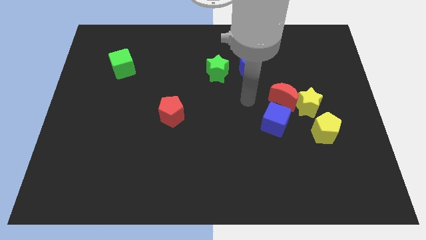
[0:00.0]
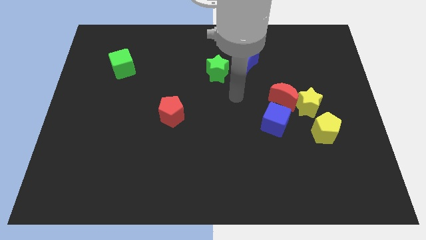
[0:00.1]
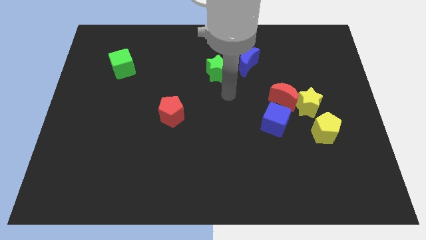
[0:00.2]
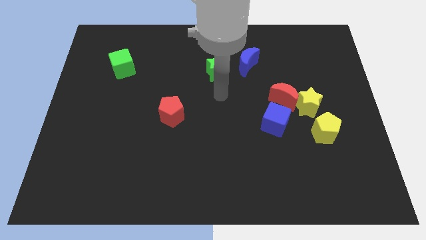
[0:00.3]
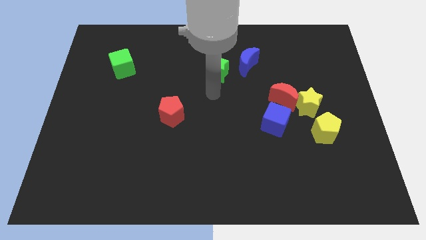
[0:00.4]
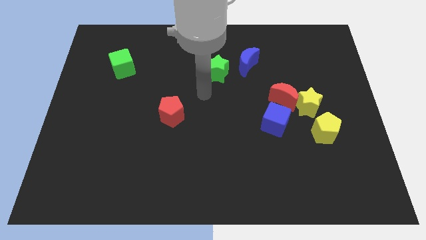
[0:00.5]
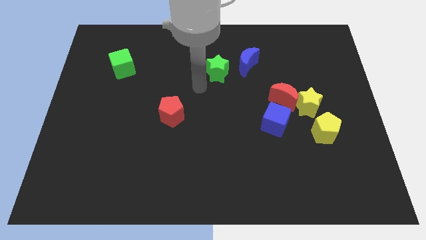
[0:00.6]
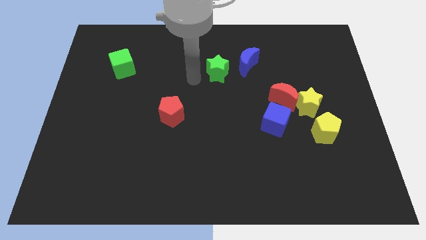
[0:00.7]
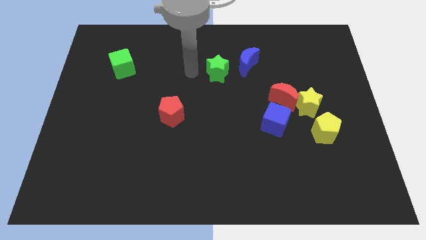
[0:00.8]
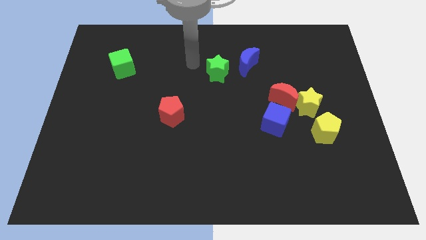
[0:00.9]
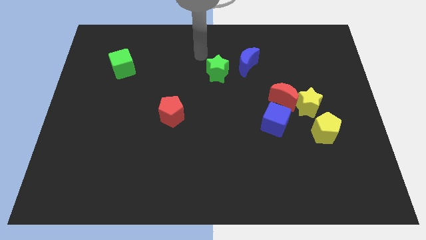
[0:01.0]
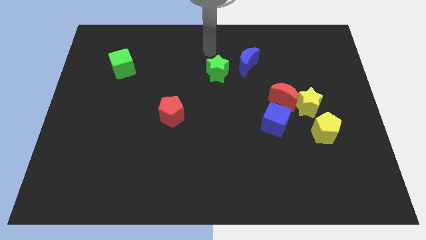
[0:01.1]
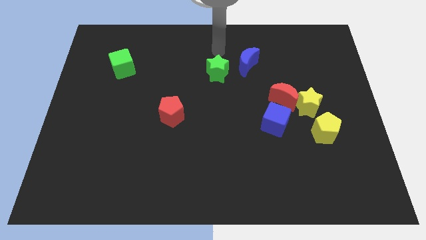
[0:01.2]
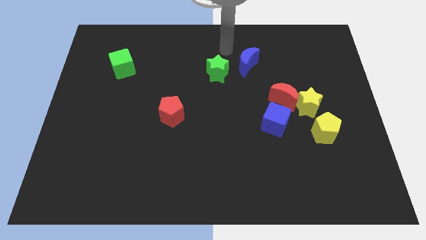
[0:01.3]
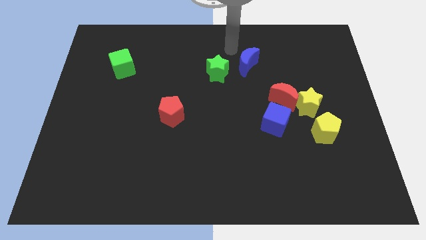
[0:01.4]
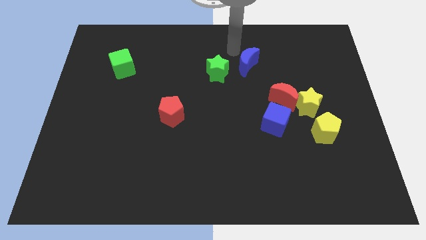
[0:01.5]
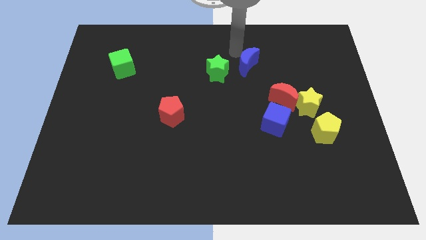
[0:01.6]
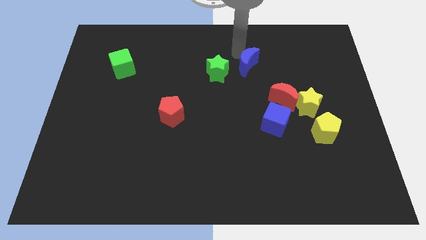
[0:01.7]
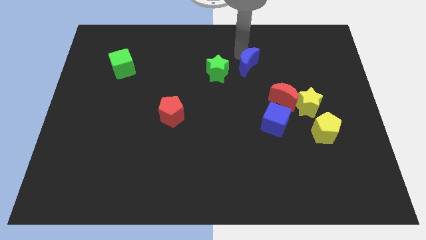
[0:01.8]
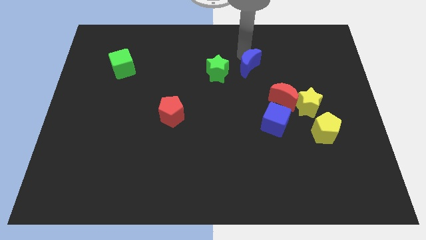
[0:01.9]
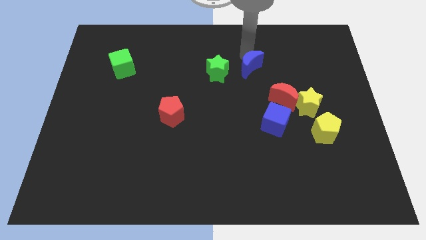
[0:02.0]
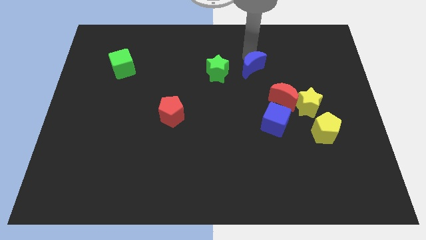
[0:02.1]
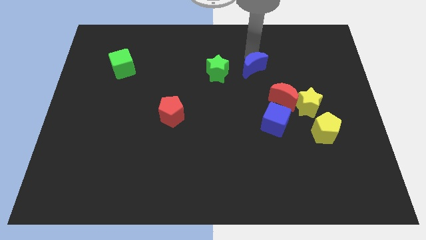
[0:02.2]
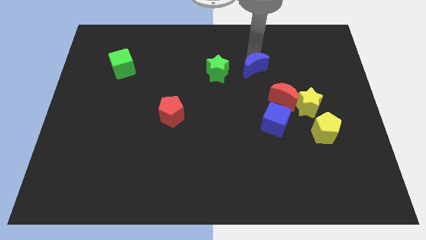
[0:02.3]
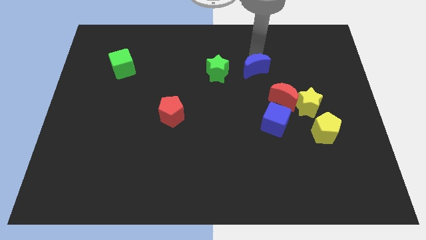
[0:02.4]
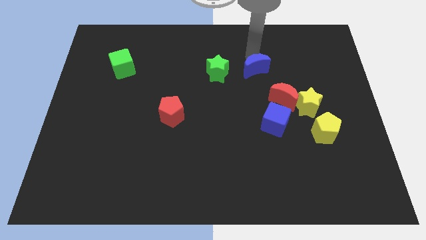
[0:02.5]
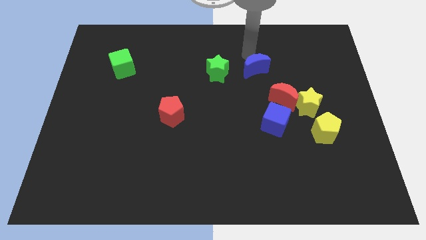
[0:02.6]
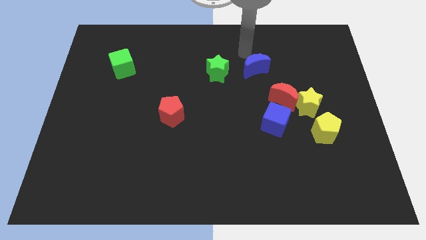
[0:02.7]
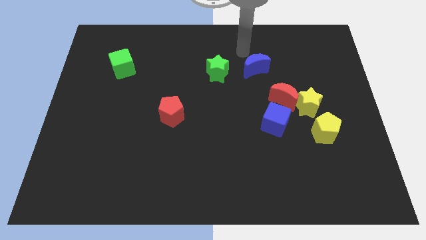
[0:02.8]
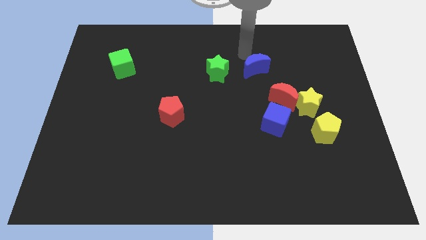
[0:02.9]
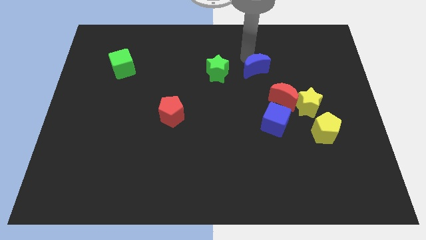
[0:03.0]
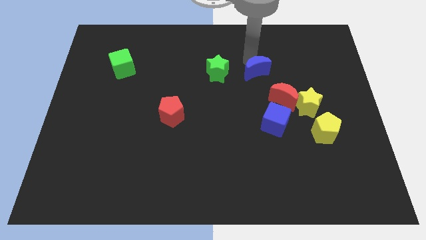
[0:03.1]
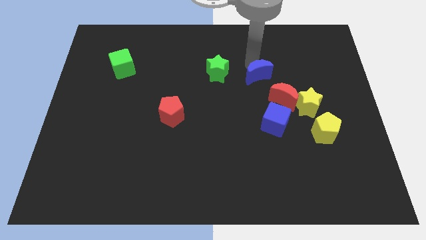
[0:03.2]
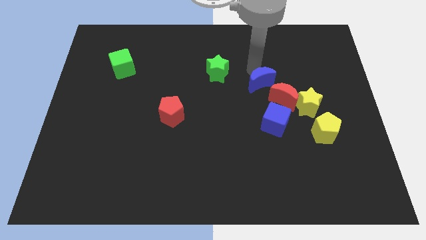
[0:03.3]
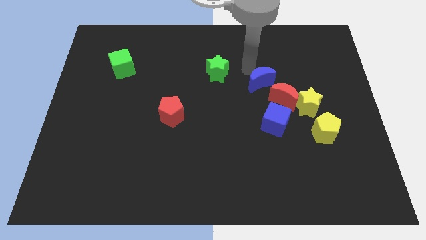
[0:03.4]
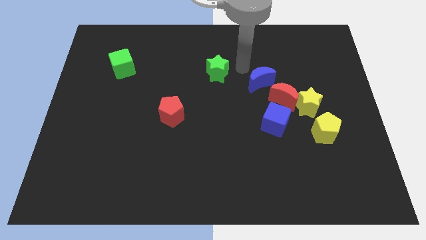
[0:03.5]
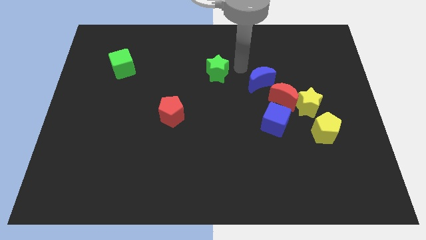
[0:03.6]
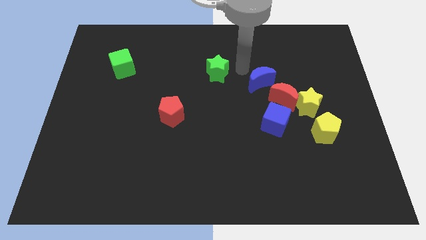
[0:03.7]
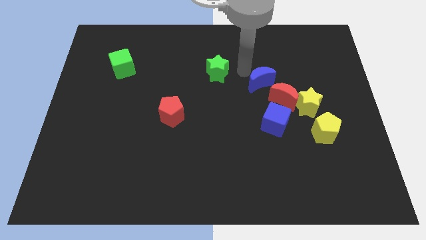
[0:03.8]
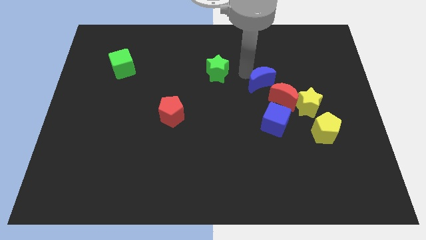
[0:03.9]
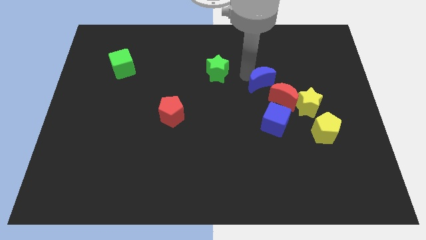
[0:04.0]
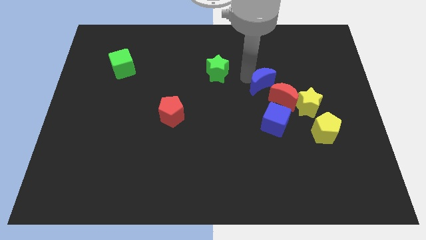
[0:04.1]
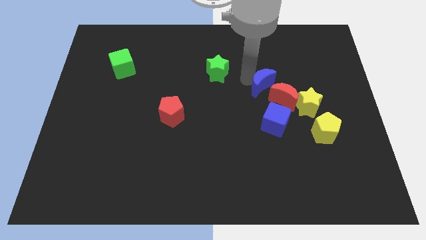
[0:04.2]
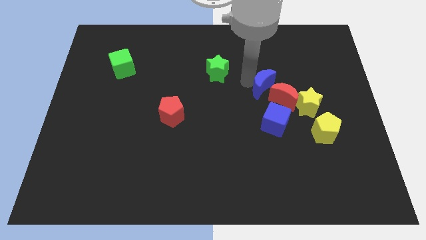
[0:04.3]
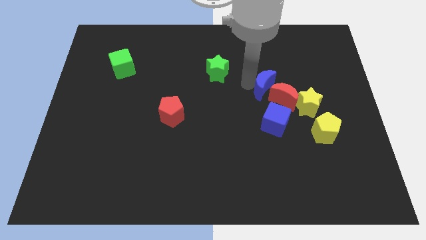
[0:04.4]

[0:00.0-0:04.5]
push the blue moon close to the red moon

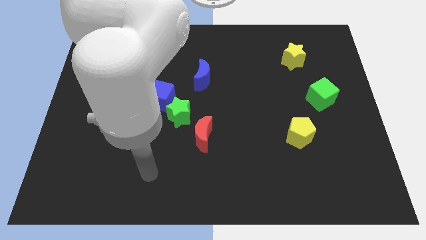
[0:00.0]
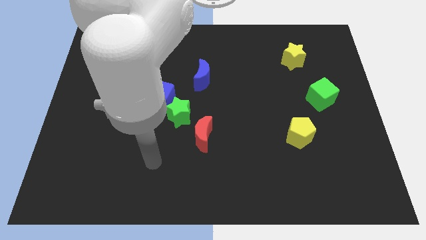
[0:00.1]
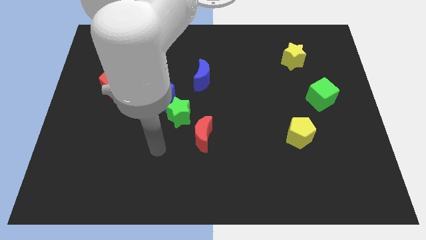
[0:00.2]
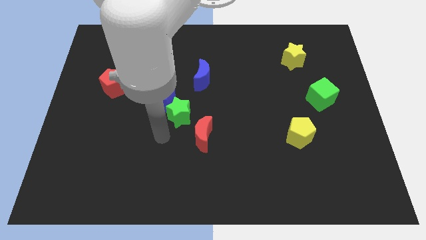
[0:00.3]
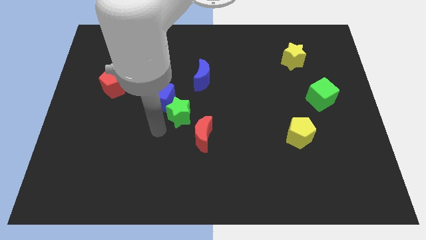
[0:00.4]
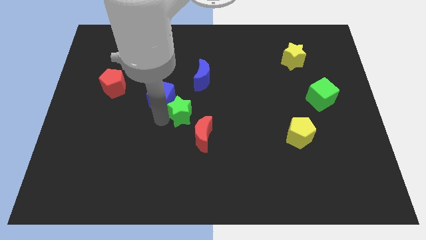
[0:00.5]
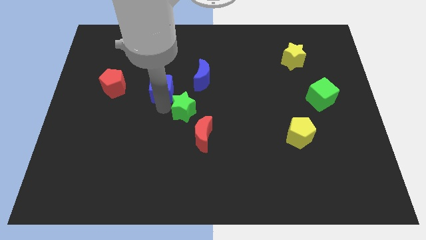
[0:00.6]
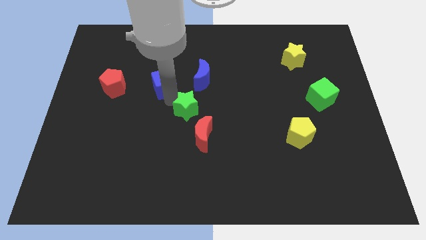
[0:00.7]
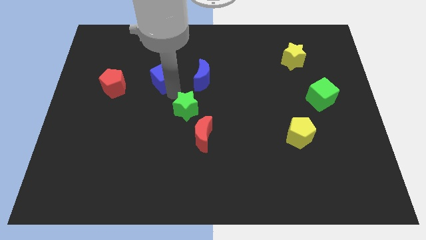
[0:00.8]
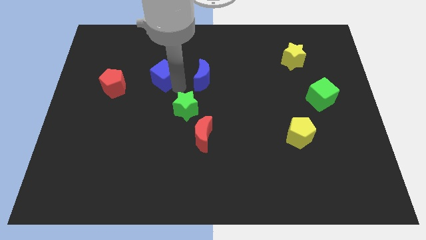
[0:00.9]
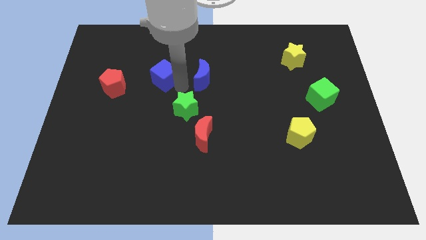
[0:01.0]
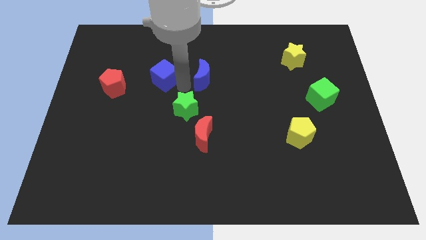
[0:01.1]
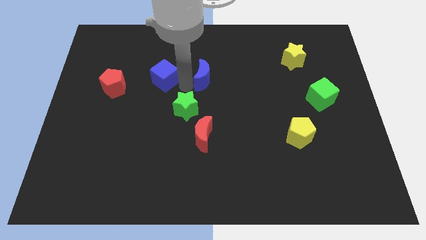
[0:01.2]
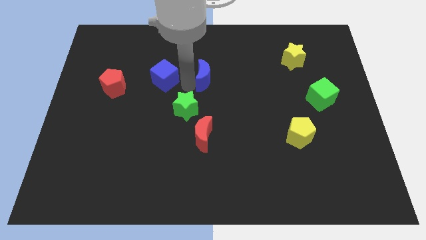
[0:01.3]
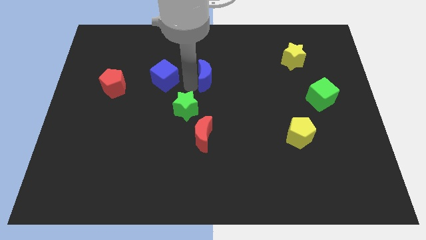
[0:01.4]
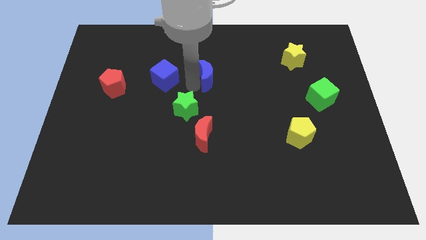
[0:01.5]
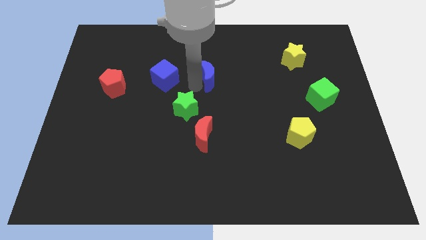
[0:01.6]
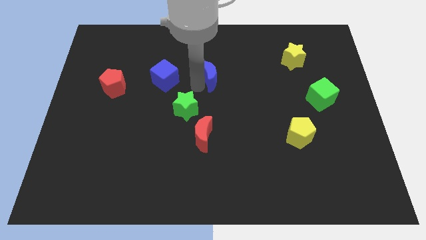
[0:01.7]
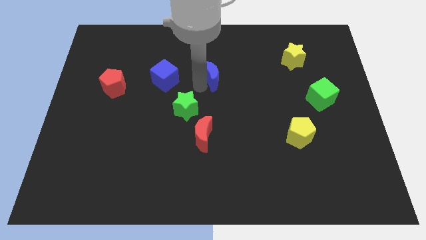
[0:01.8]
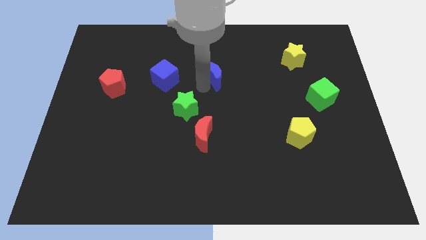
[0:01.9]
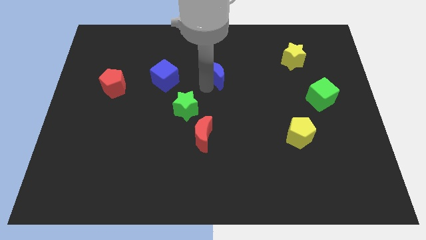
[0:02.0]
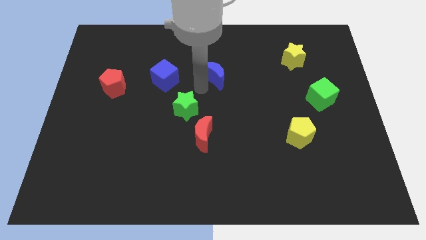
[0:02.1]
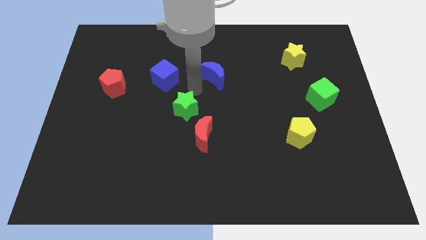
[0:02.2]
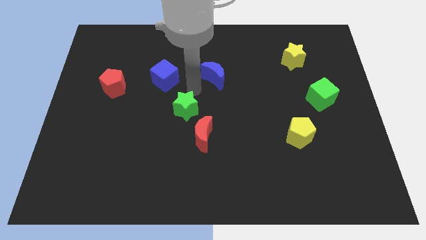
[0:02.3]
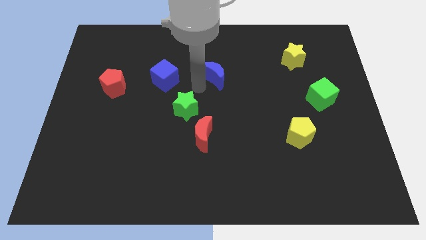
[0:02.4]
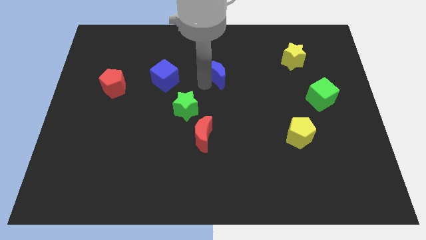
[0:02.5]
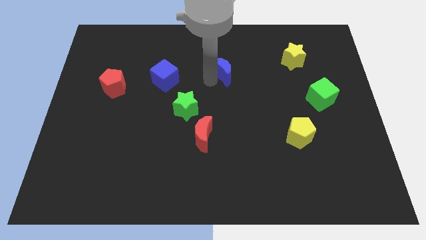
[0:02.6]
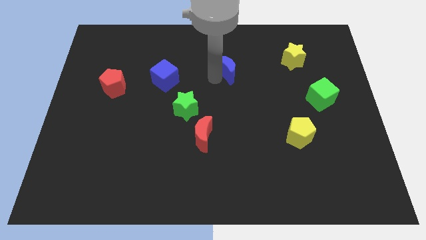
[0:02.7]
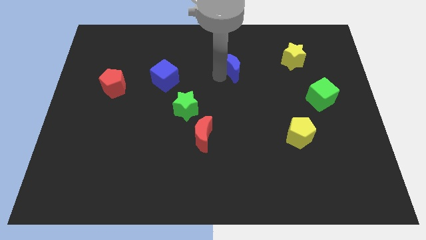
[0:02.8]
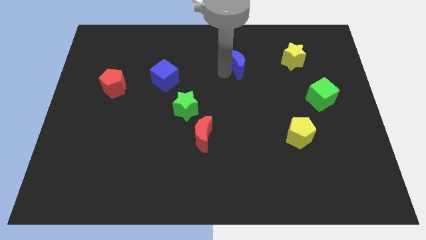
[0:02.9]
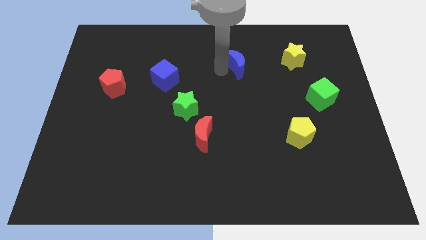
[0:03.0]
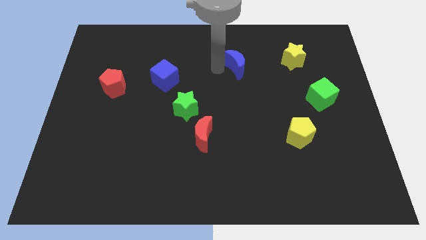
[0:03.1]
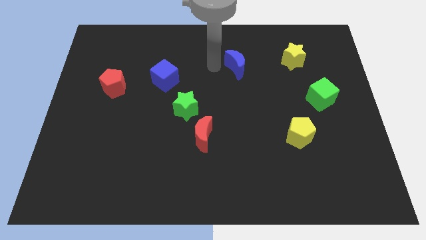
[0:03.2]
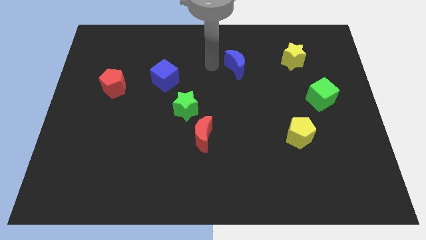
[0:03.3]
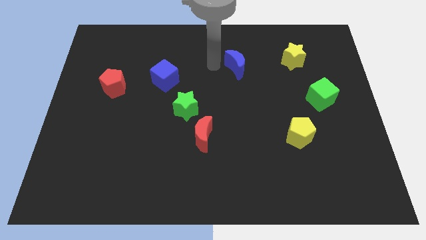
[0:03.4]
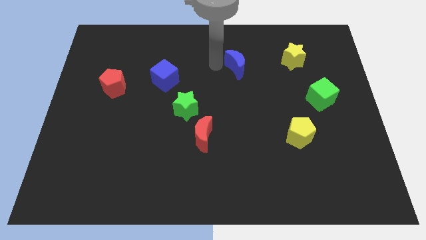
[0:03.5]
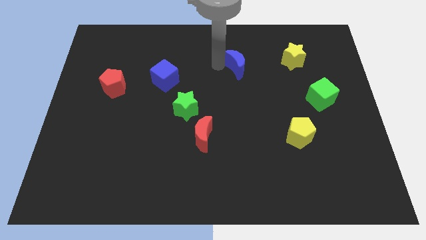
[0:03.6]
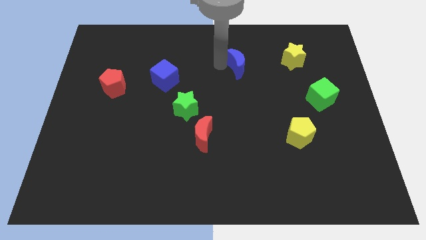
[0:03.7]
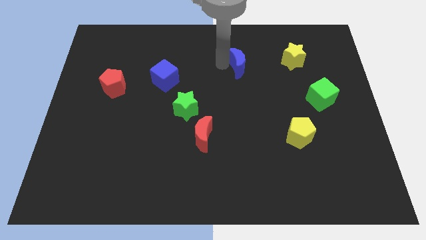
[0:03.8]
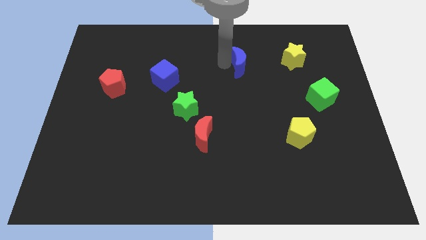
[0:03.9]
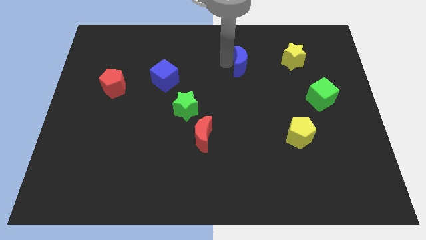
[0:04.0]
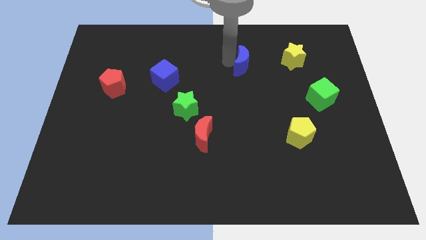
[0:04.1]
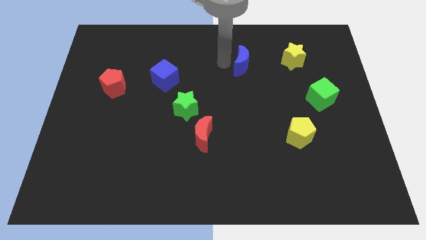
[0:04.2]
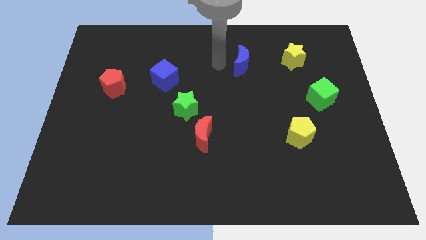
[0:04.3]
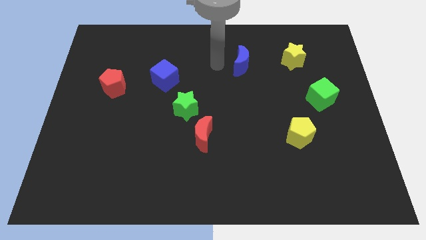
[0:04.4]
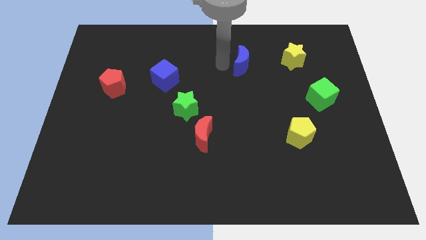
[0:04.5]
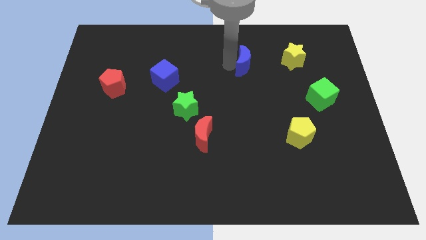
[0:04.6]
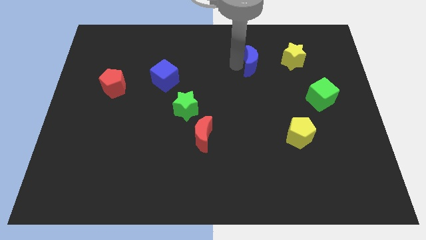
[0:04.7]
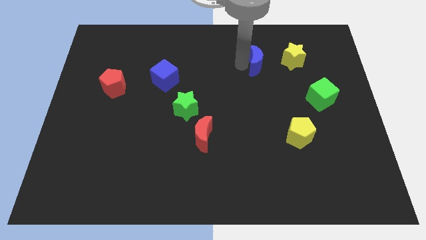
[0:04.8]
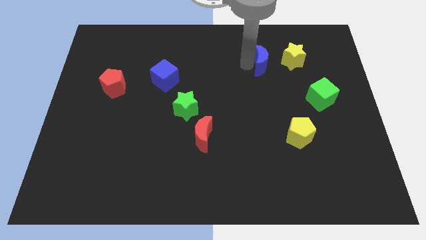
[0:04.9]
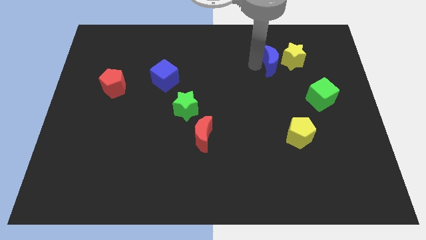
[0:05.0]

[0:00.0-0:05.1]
move the blue moon towards the yellow star
